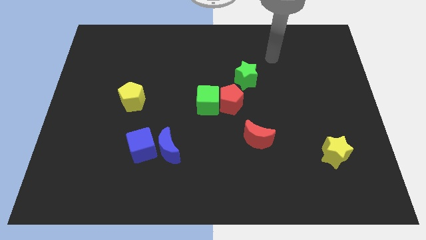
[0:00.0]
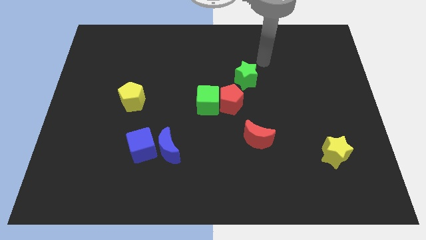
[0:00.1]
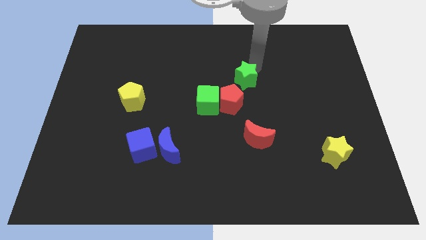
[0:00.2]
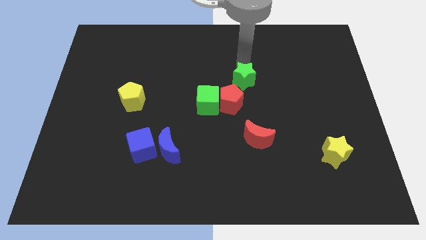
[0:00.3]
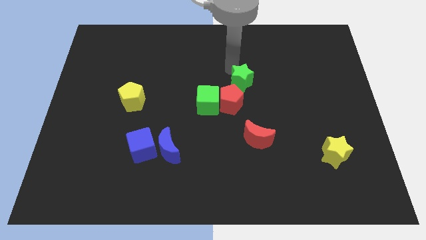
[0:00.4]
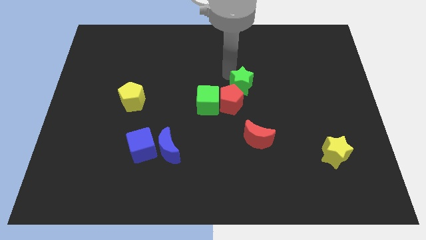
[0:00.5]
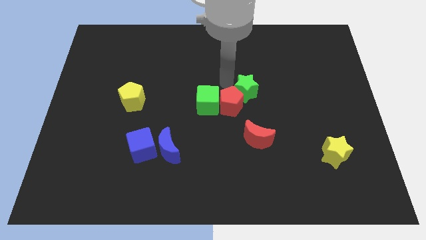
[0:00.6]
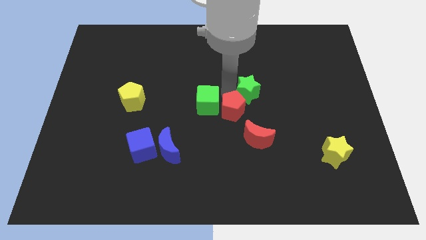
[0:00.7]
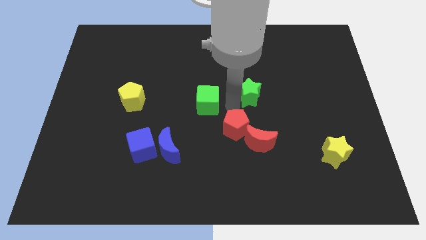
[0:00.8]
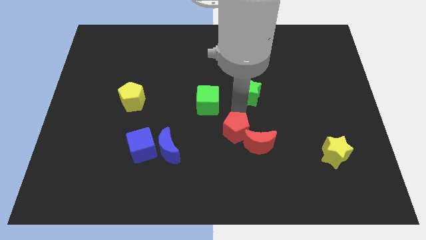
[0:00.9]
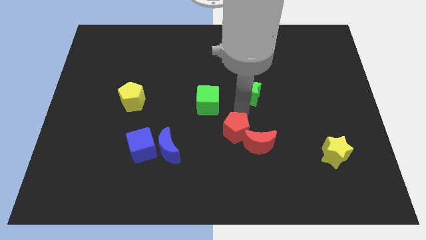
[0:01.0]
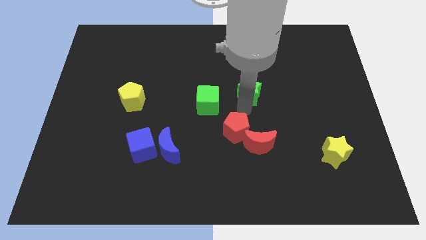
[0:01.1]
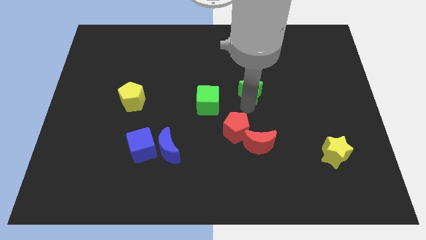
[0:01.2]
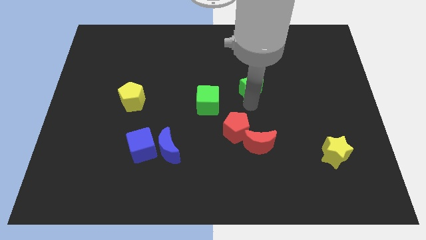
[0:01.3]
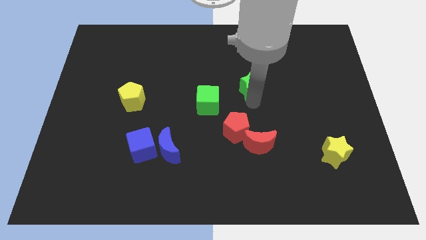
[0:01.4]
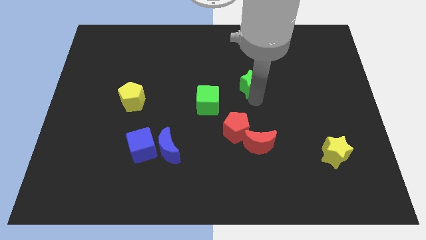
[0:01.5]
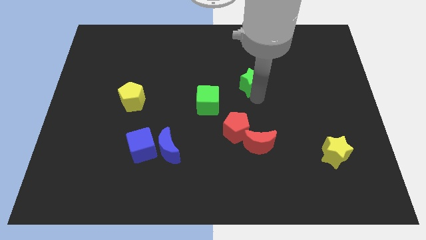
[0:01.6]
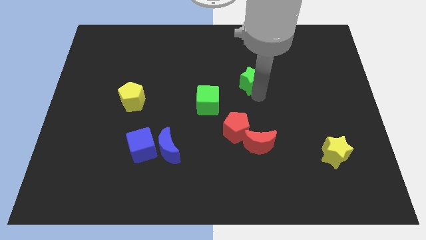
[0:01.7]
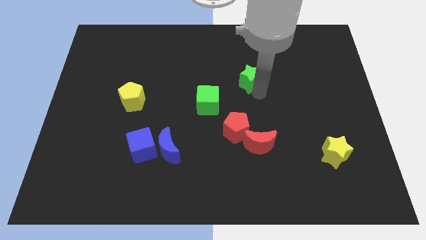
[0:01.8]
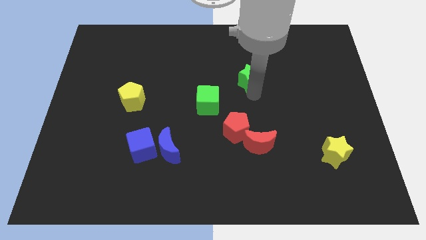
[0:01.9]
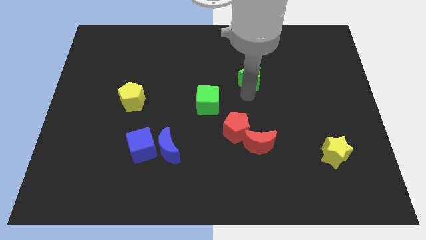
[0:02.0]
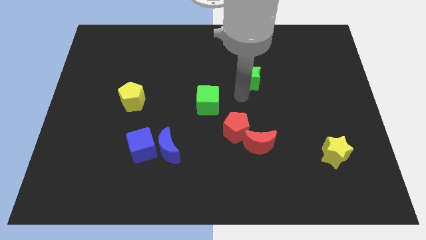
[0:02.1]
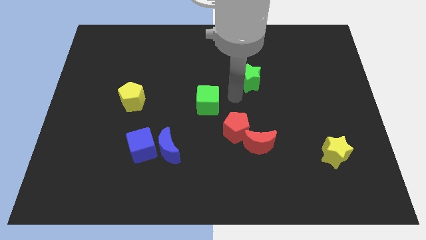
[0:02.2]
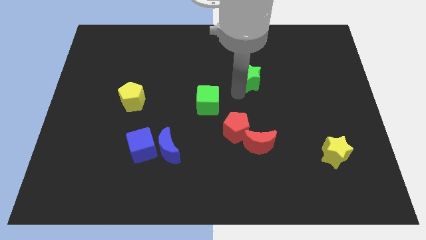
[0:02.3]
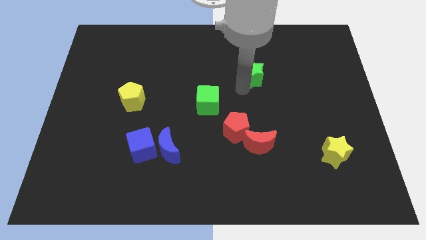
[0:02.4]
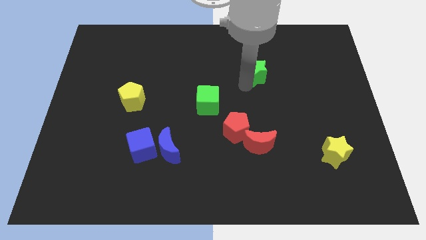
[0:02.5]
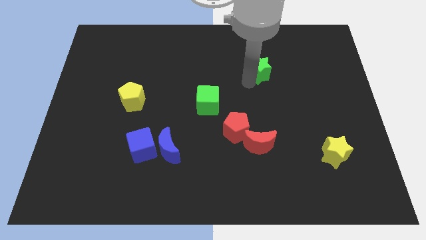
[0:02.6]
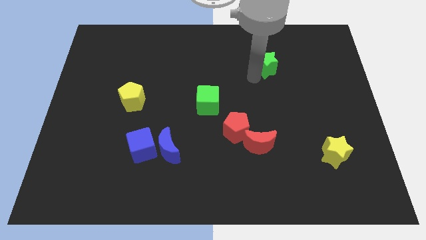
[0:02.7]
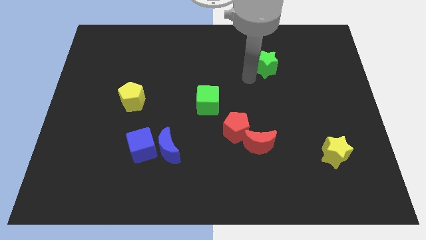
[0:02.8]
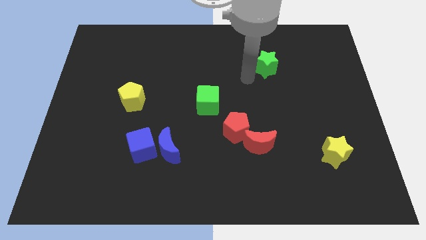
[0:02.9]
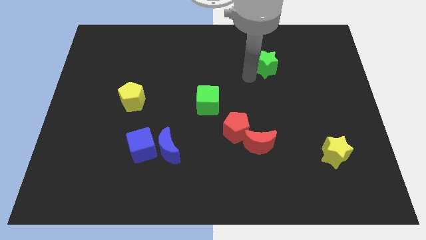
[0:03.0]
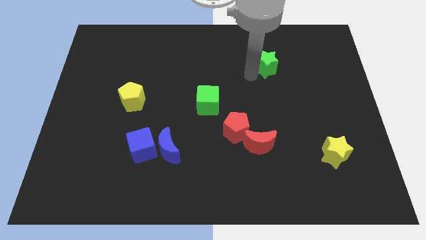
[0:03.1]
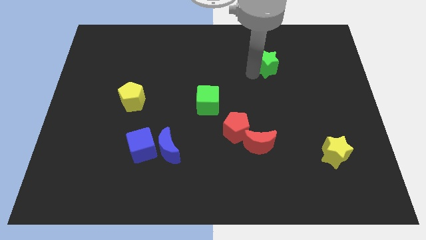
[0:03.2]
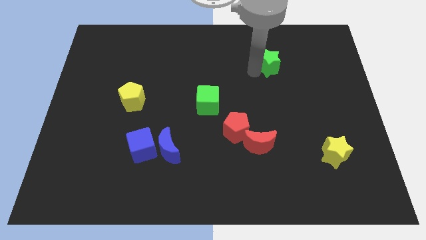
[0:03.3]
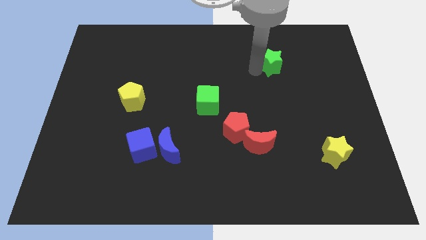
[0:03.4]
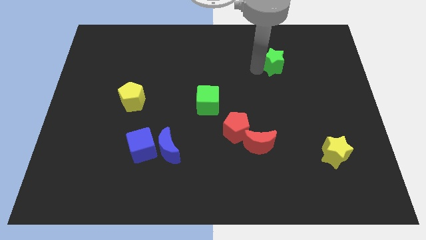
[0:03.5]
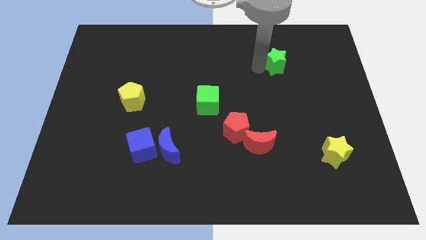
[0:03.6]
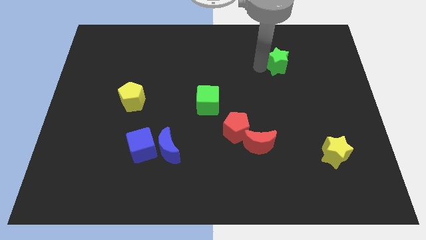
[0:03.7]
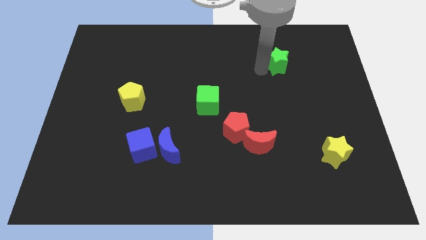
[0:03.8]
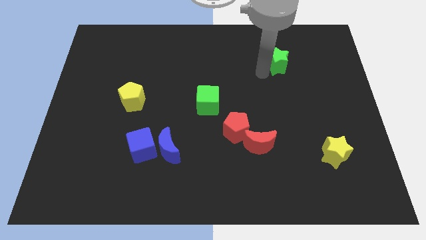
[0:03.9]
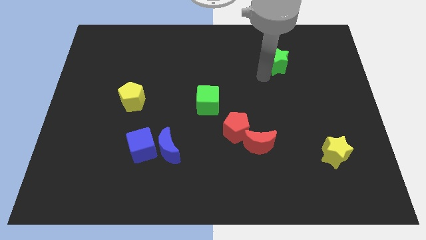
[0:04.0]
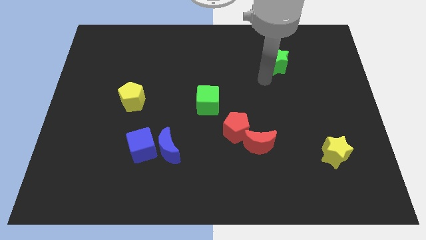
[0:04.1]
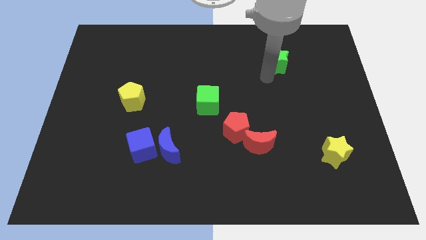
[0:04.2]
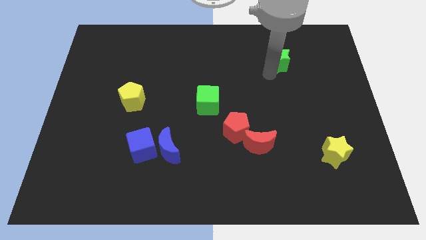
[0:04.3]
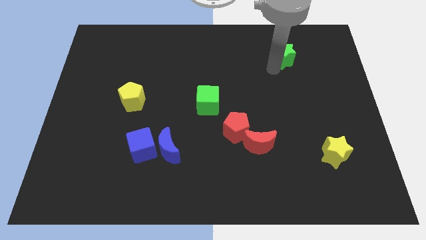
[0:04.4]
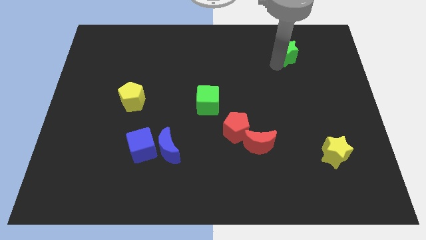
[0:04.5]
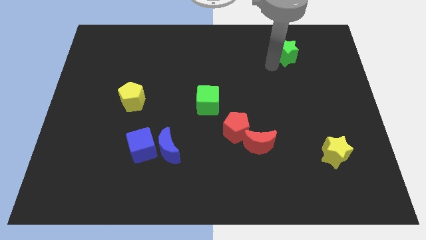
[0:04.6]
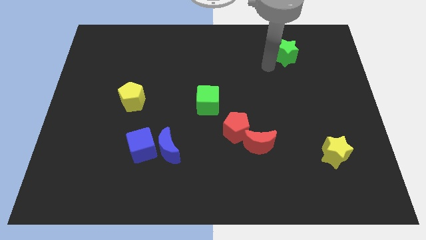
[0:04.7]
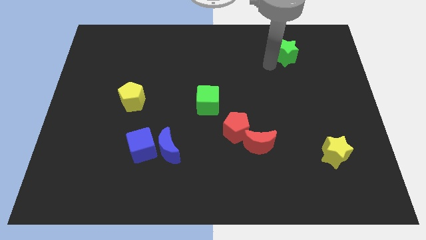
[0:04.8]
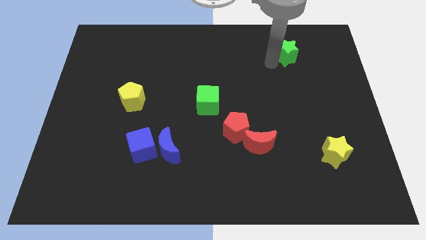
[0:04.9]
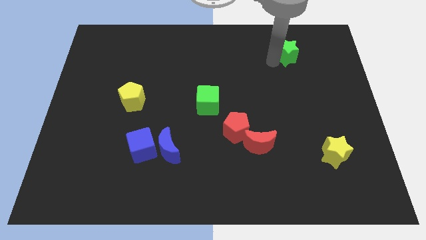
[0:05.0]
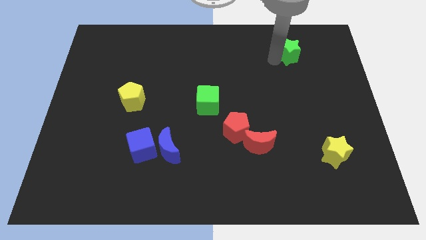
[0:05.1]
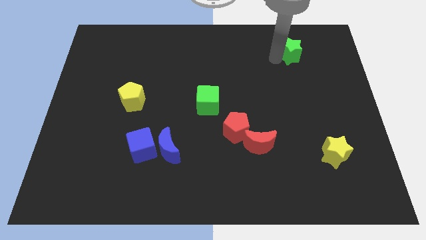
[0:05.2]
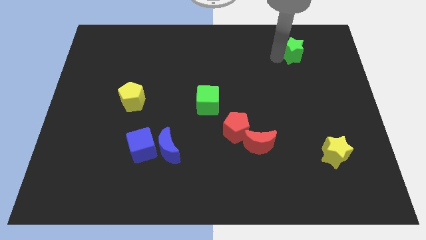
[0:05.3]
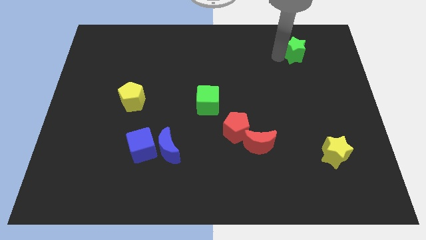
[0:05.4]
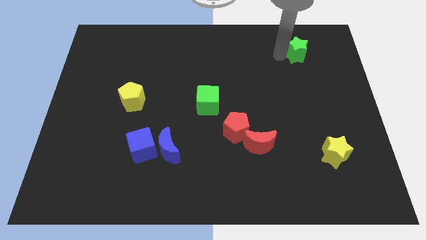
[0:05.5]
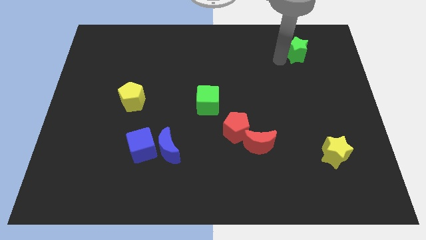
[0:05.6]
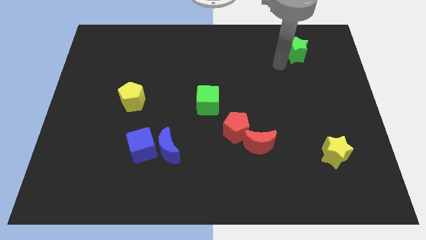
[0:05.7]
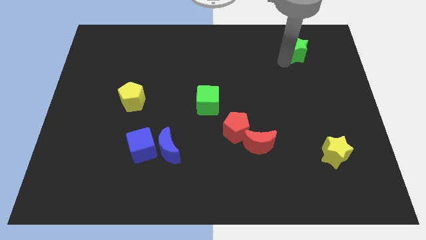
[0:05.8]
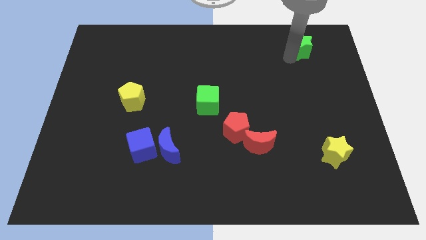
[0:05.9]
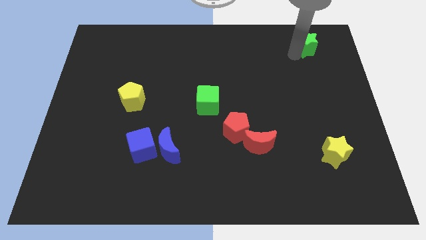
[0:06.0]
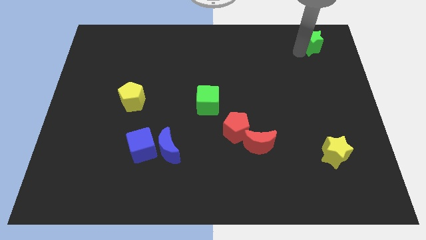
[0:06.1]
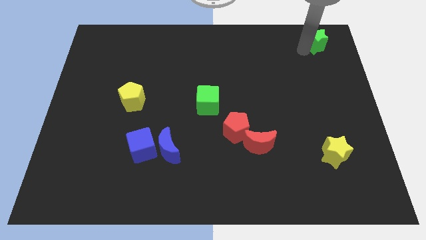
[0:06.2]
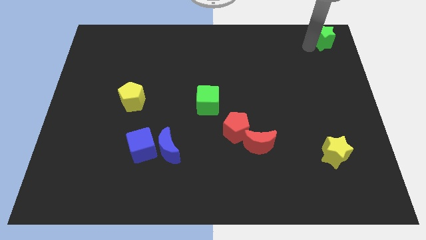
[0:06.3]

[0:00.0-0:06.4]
push the green star to the top right of the board

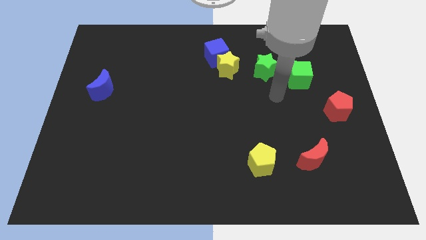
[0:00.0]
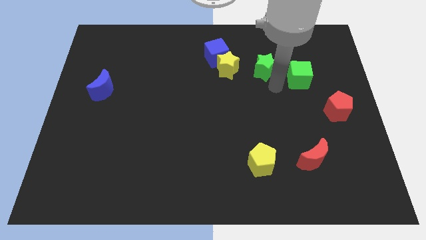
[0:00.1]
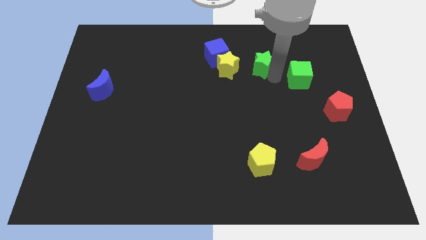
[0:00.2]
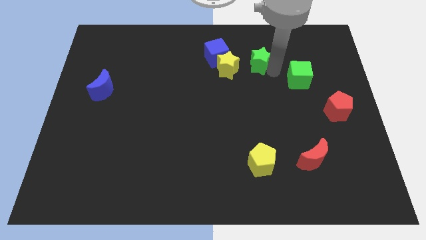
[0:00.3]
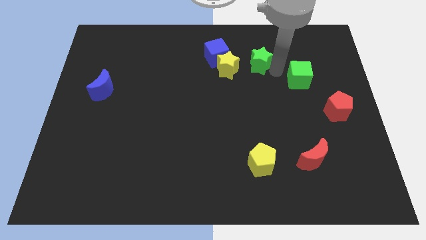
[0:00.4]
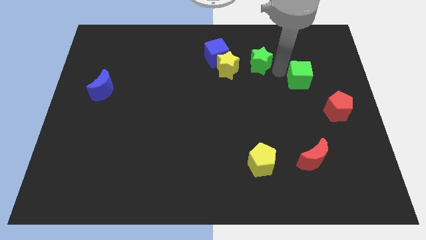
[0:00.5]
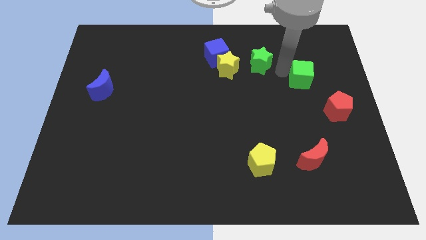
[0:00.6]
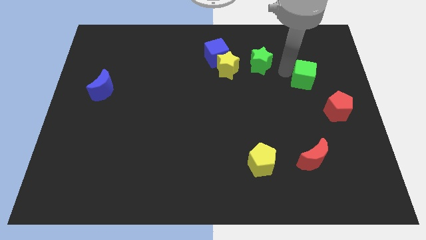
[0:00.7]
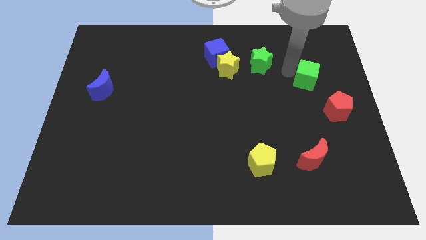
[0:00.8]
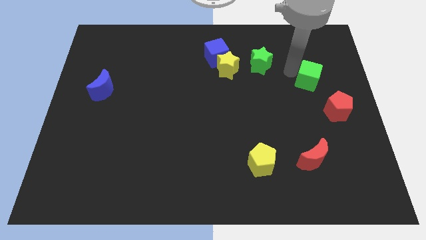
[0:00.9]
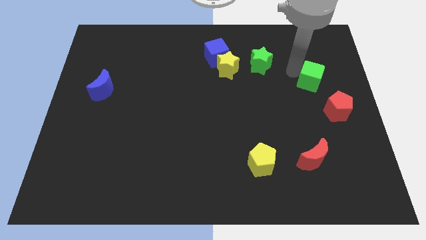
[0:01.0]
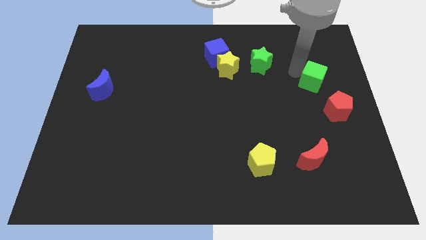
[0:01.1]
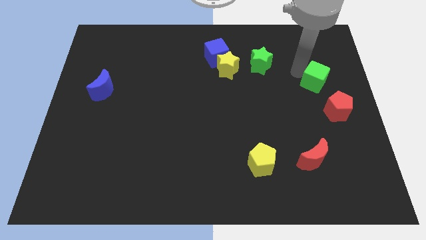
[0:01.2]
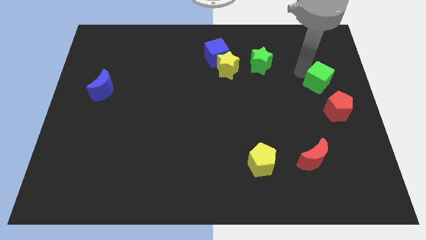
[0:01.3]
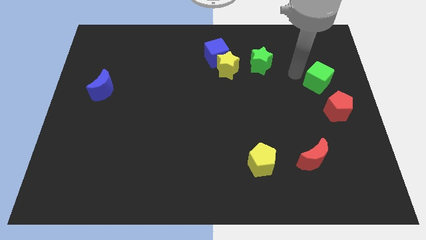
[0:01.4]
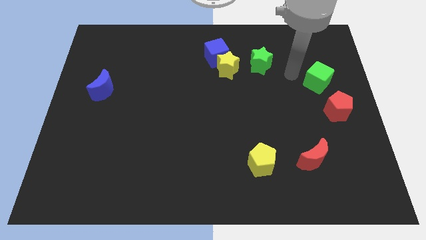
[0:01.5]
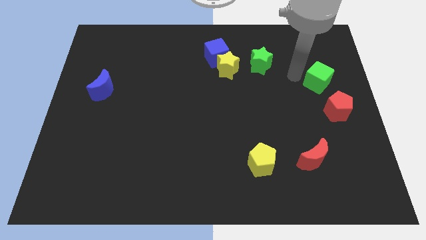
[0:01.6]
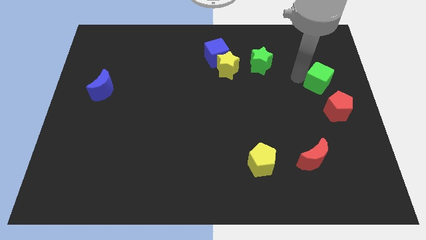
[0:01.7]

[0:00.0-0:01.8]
move the green cube to the right side
